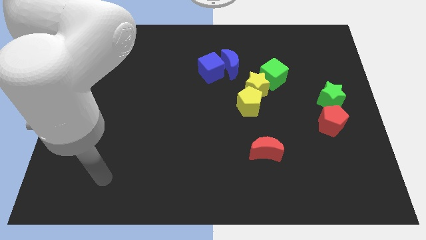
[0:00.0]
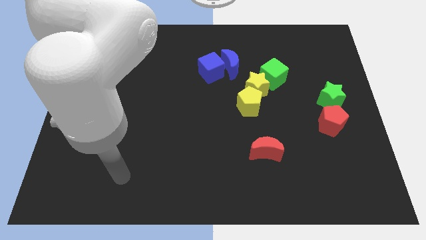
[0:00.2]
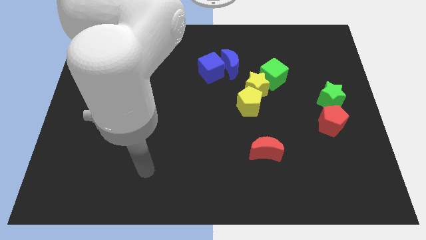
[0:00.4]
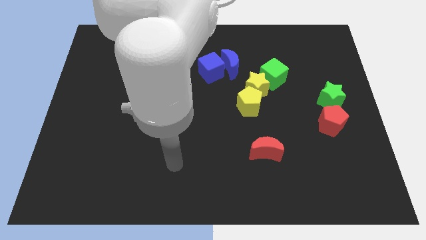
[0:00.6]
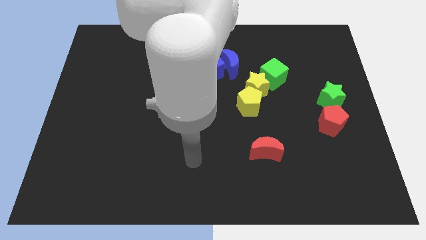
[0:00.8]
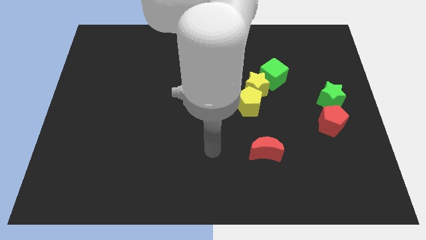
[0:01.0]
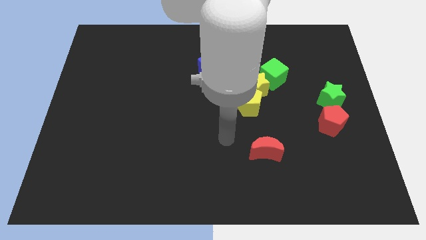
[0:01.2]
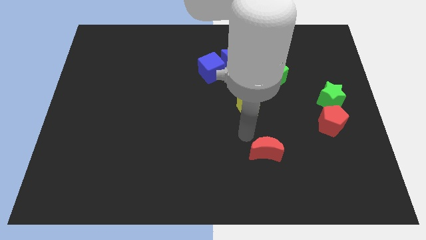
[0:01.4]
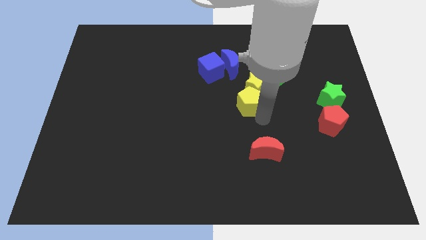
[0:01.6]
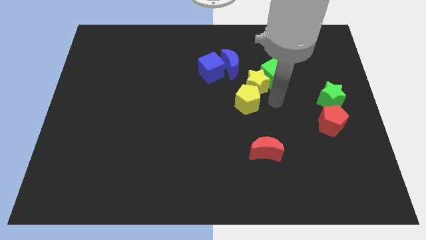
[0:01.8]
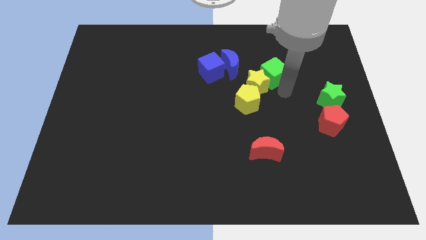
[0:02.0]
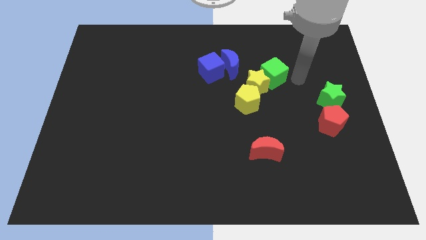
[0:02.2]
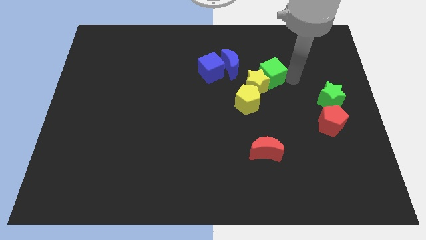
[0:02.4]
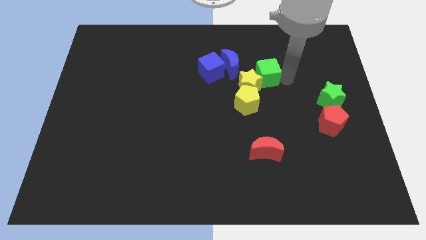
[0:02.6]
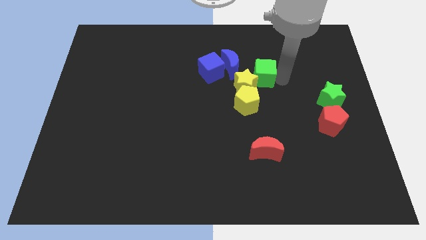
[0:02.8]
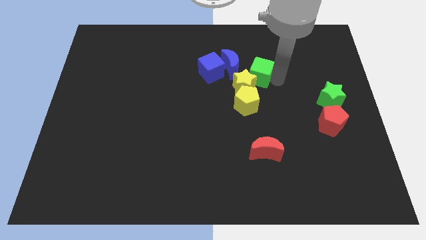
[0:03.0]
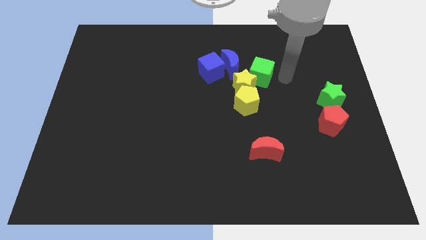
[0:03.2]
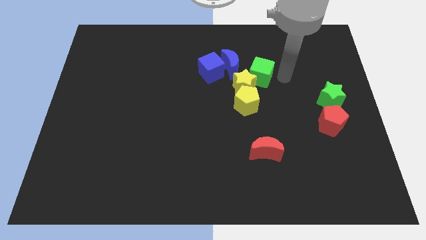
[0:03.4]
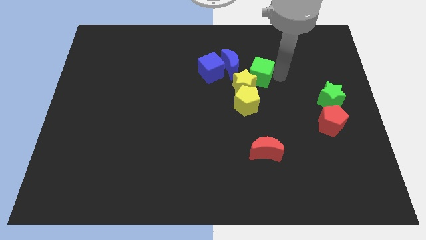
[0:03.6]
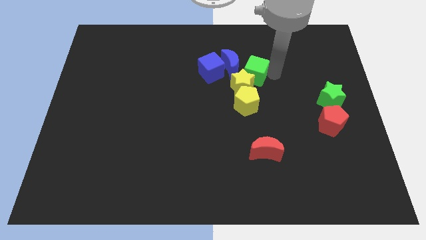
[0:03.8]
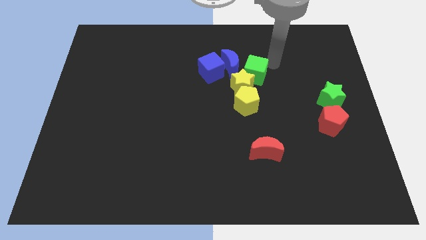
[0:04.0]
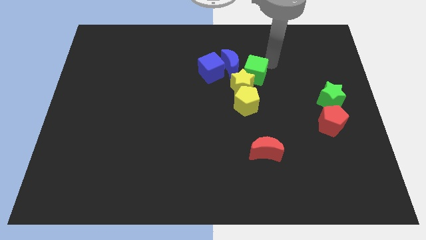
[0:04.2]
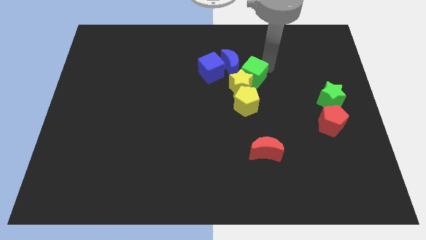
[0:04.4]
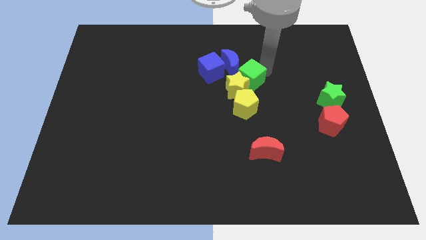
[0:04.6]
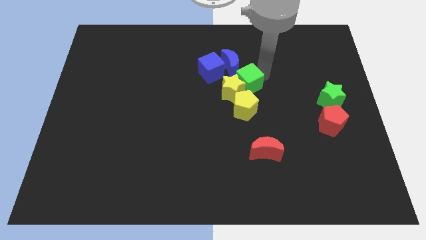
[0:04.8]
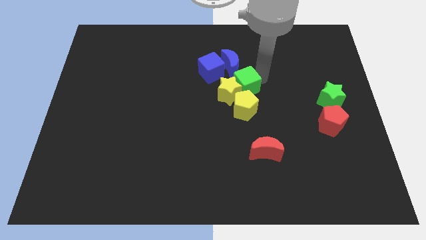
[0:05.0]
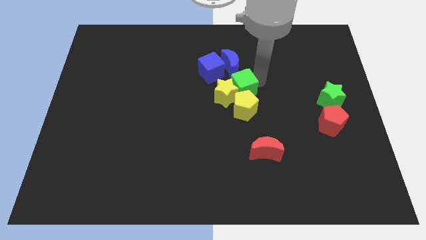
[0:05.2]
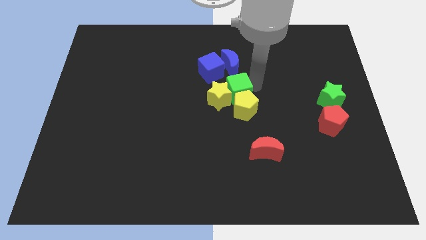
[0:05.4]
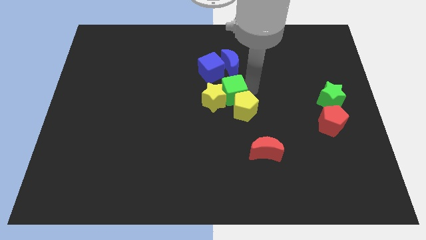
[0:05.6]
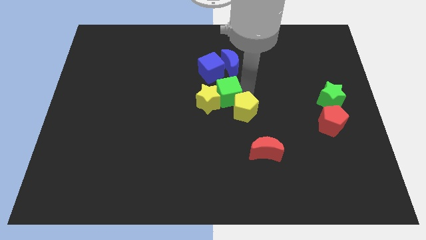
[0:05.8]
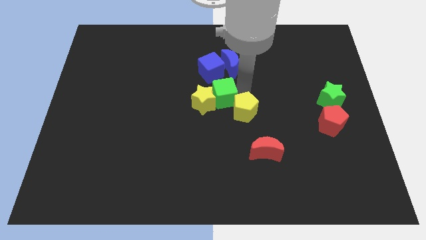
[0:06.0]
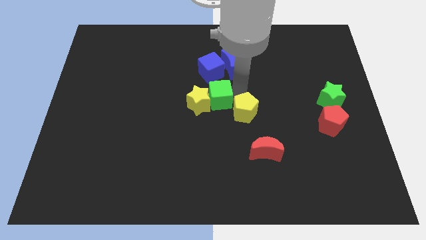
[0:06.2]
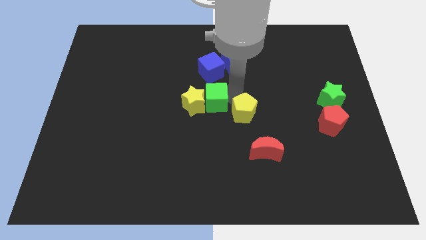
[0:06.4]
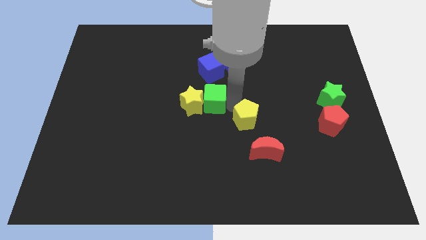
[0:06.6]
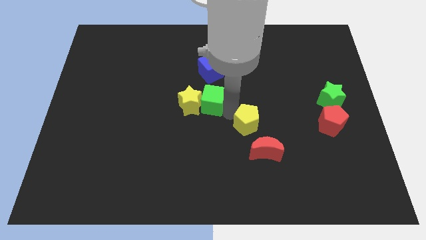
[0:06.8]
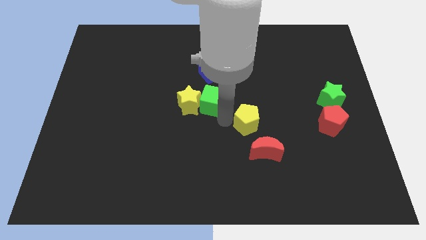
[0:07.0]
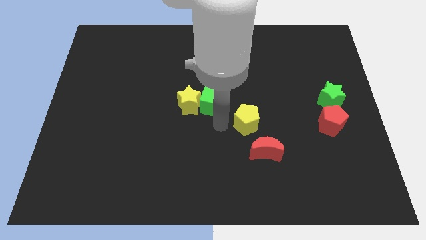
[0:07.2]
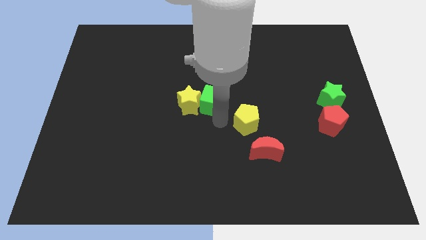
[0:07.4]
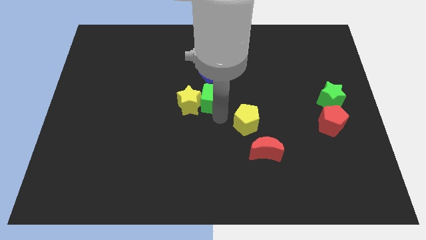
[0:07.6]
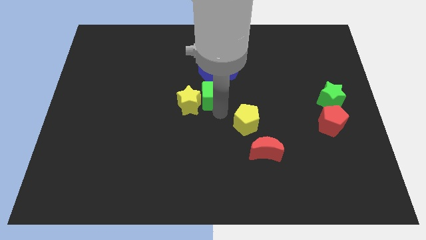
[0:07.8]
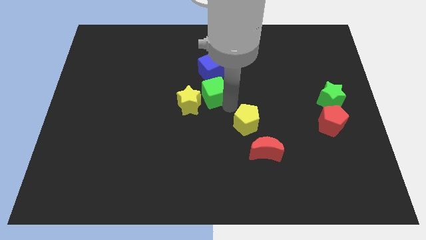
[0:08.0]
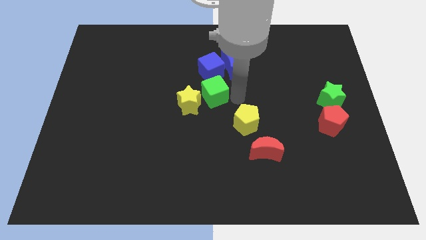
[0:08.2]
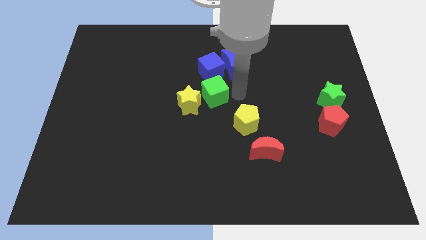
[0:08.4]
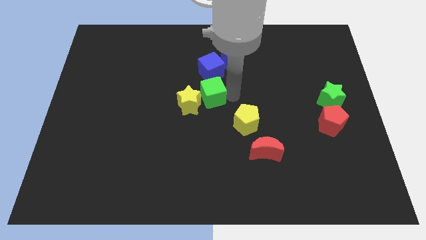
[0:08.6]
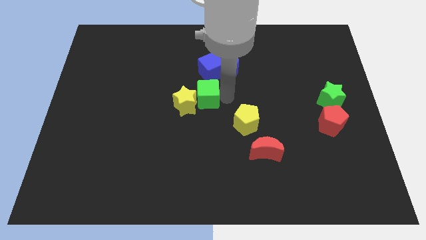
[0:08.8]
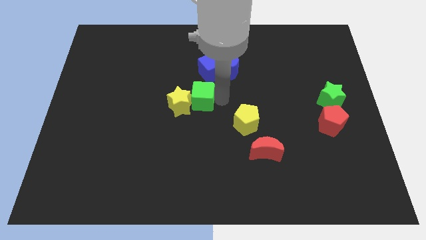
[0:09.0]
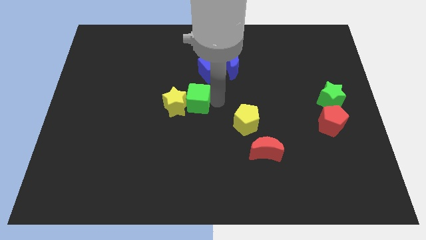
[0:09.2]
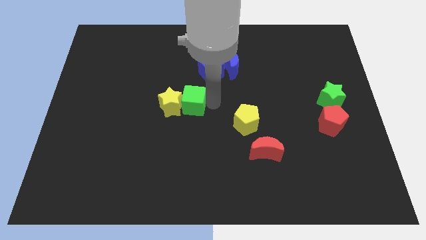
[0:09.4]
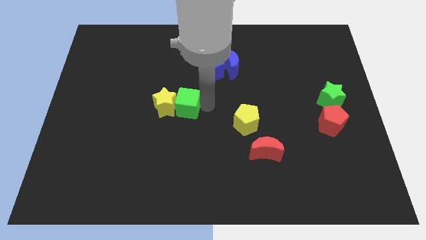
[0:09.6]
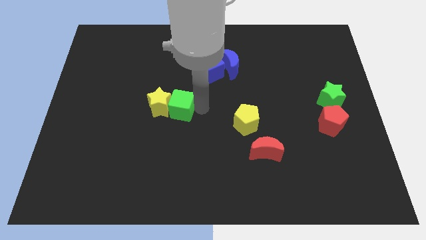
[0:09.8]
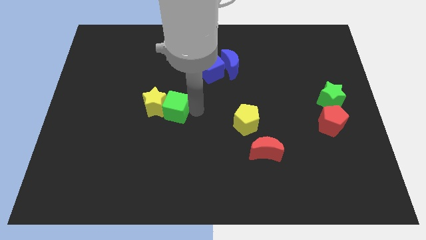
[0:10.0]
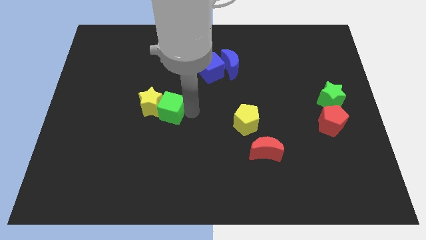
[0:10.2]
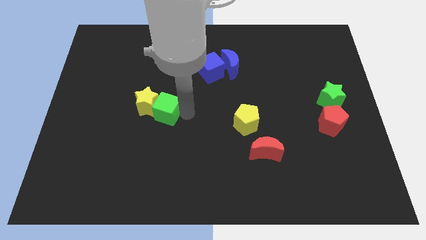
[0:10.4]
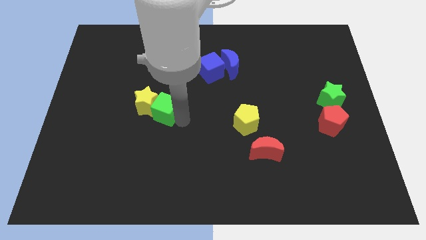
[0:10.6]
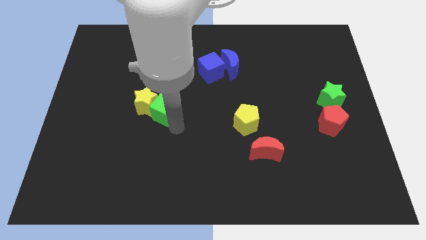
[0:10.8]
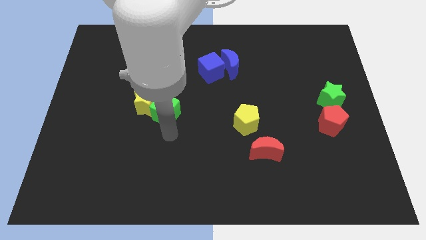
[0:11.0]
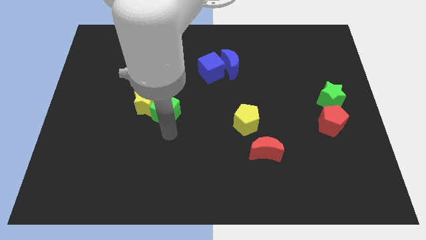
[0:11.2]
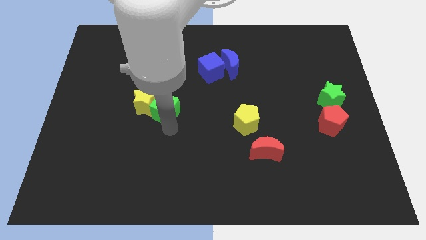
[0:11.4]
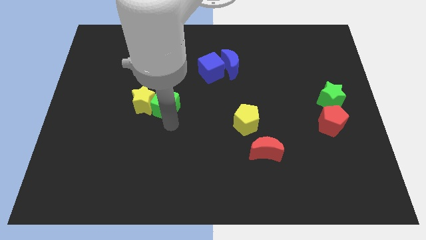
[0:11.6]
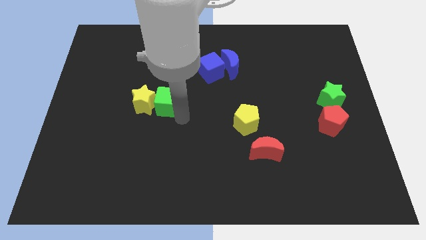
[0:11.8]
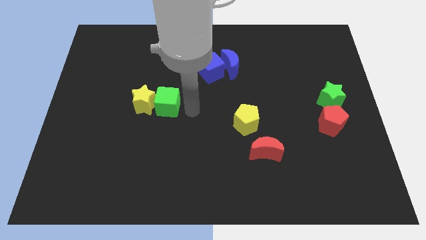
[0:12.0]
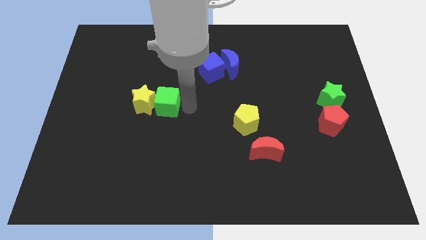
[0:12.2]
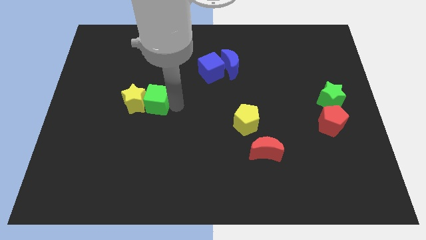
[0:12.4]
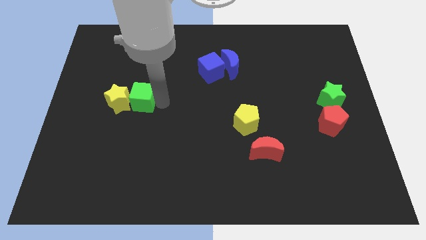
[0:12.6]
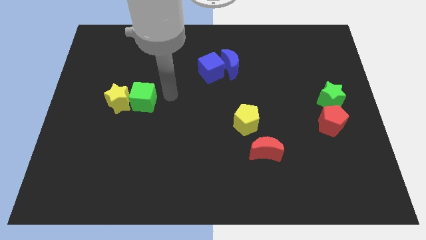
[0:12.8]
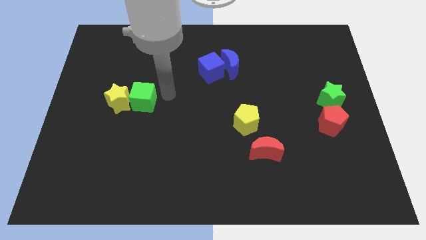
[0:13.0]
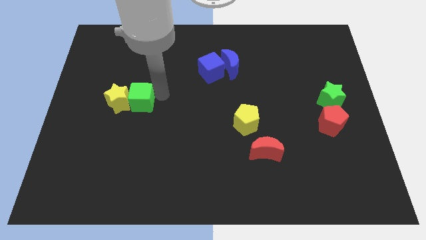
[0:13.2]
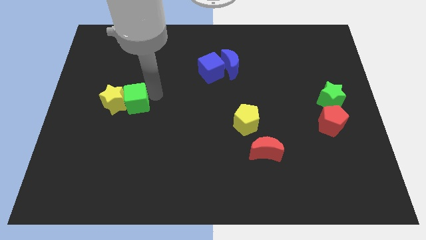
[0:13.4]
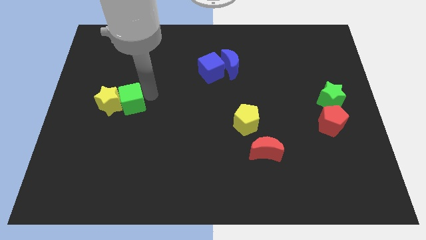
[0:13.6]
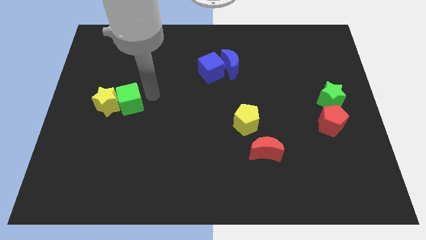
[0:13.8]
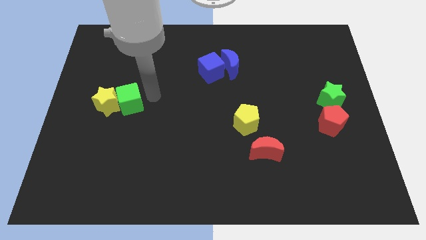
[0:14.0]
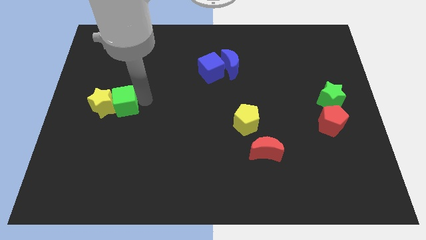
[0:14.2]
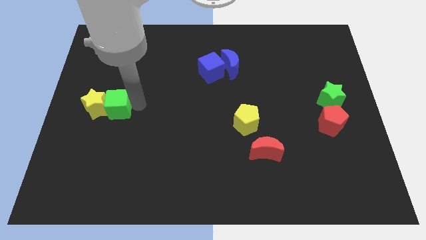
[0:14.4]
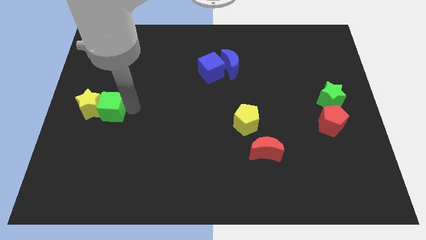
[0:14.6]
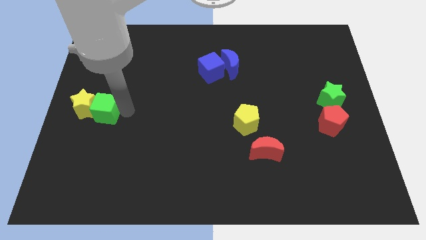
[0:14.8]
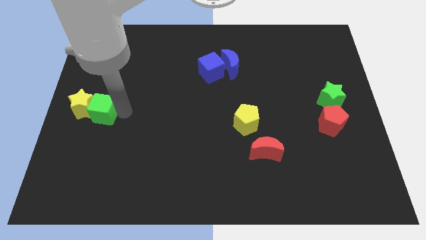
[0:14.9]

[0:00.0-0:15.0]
put the green cube to the center left
